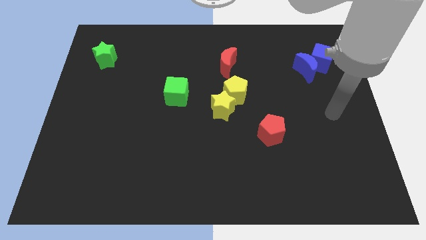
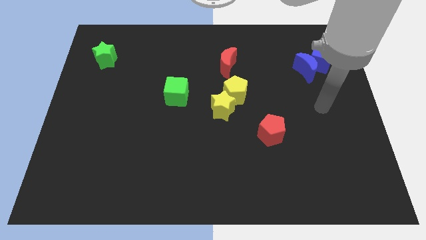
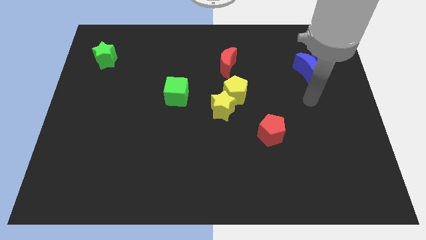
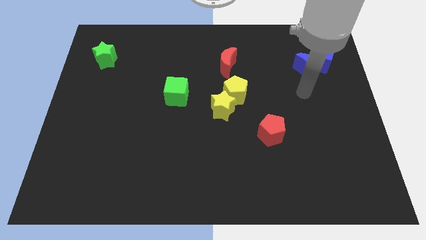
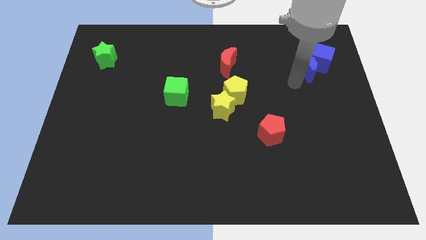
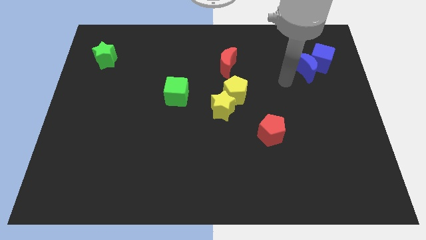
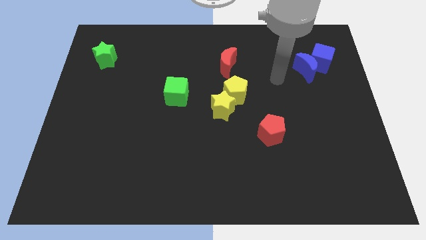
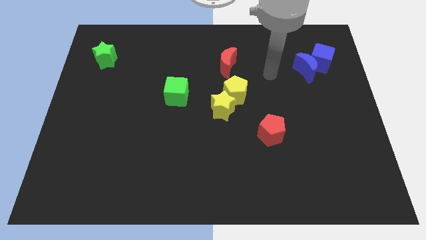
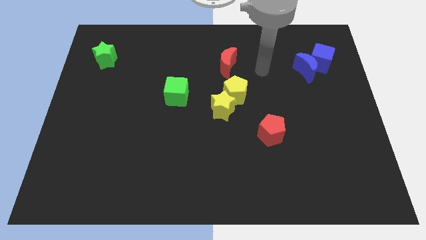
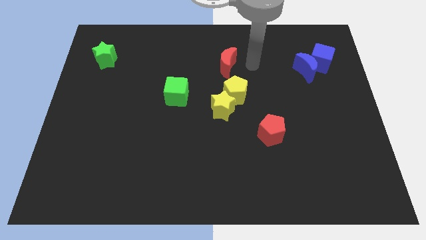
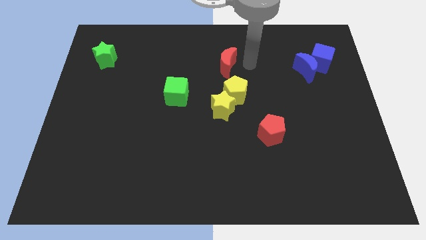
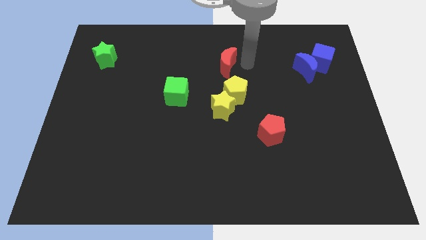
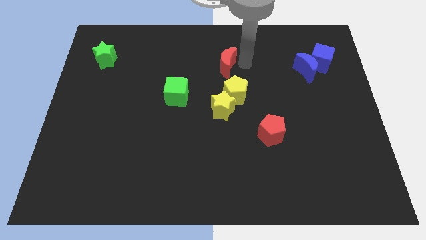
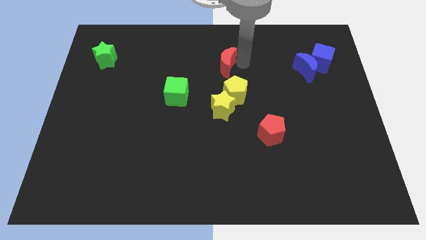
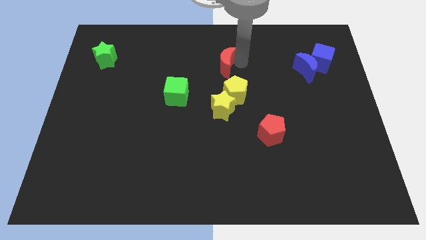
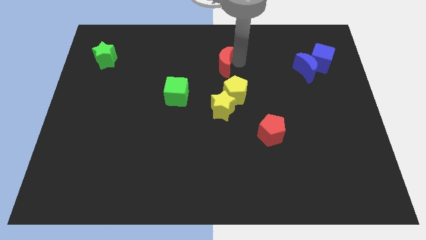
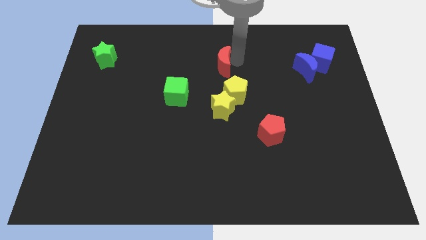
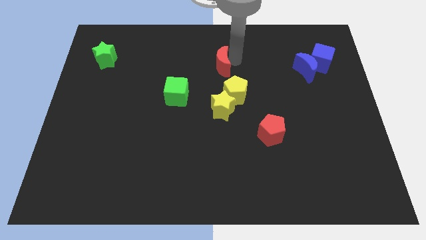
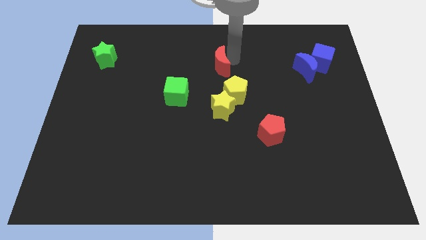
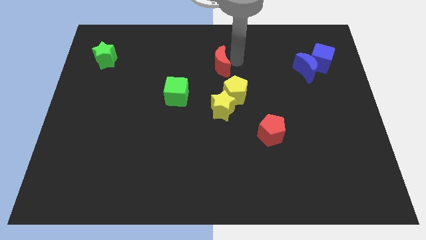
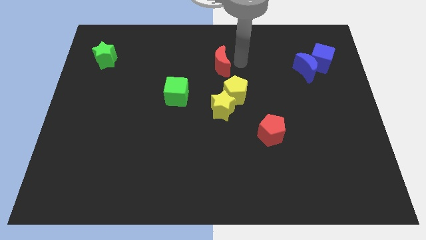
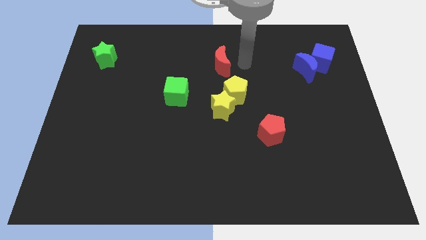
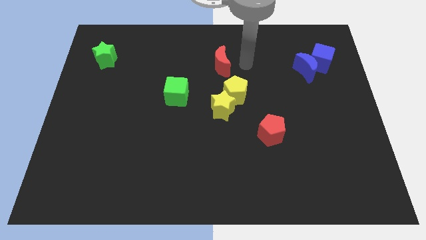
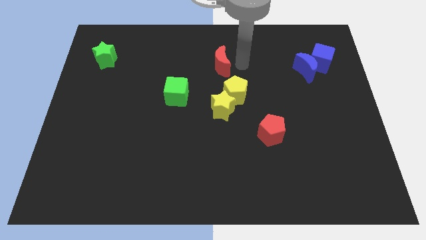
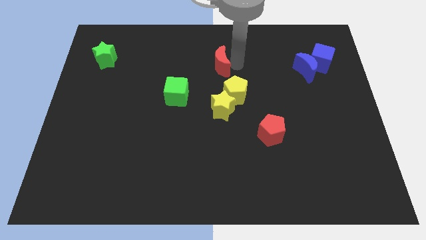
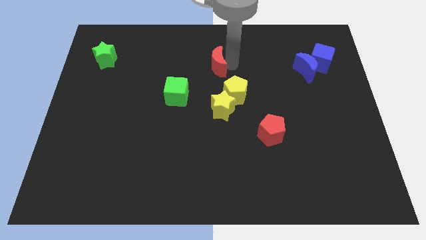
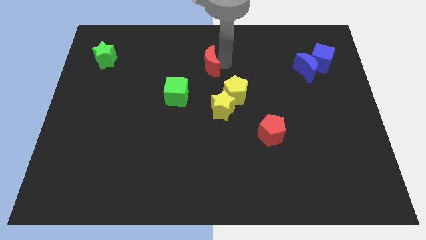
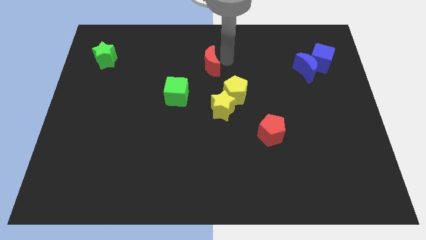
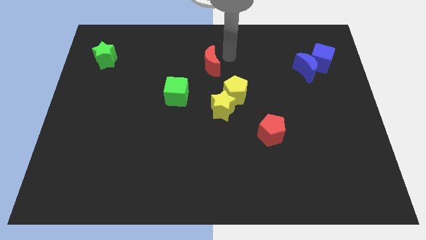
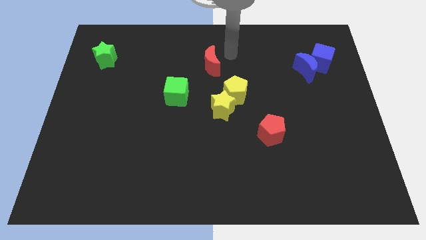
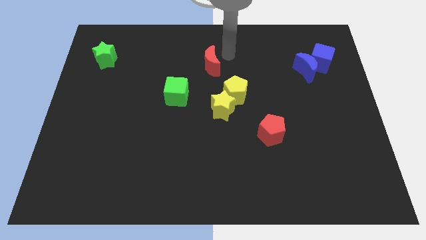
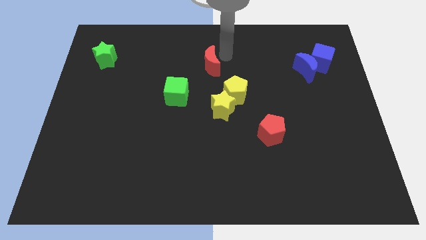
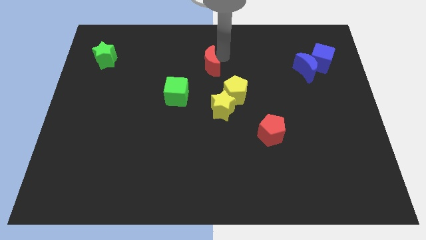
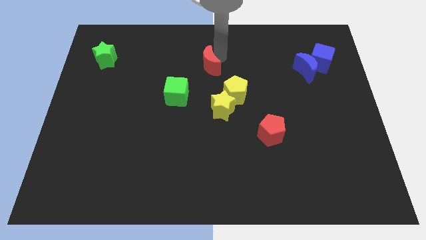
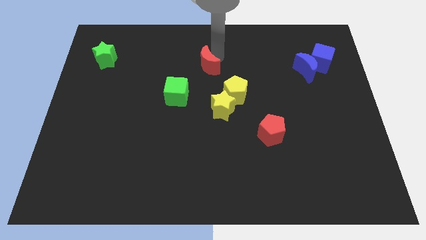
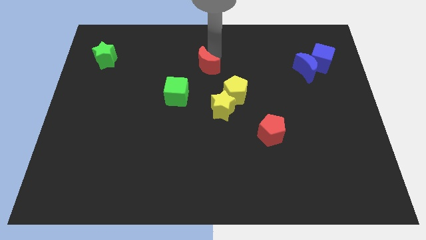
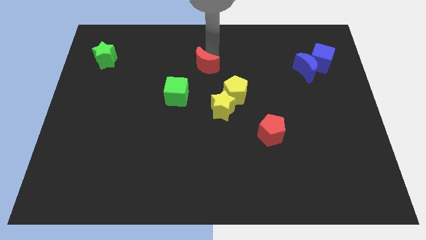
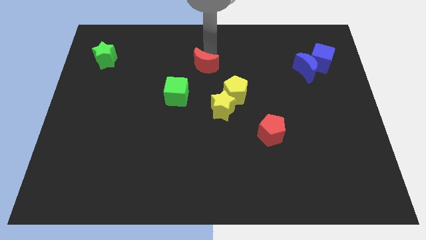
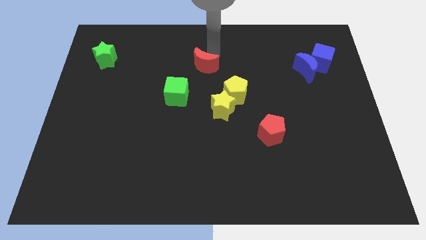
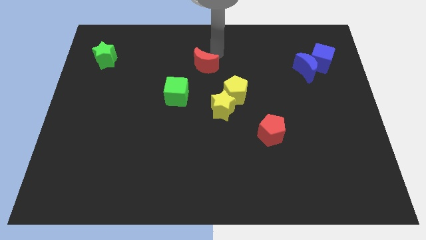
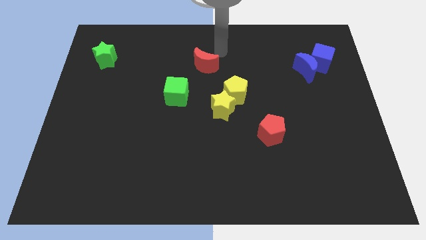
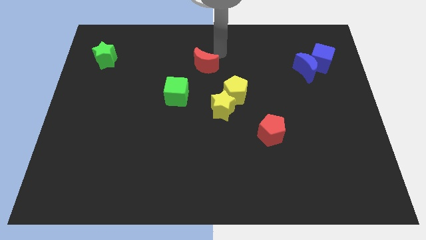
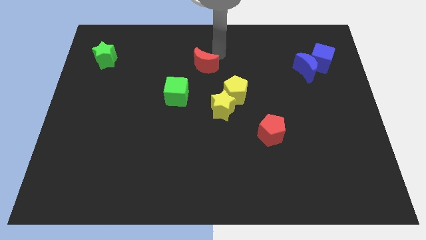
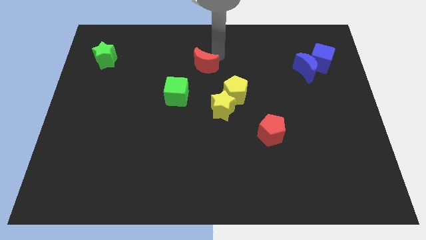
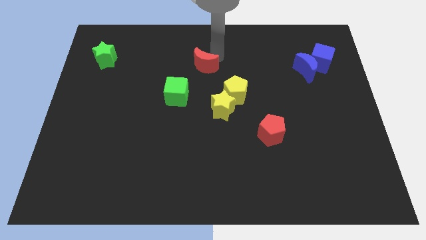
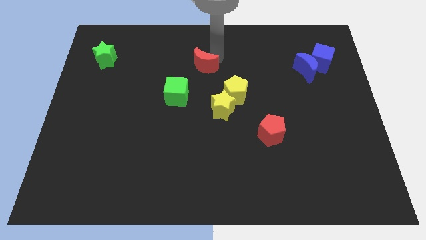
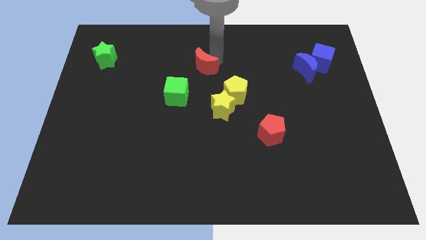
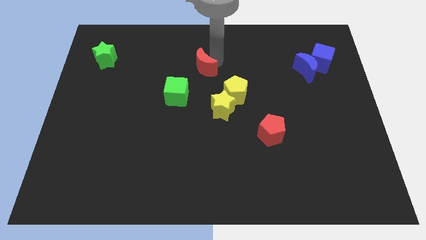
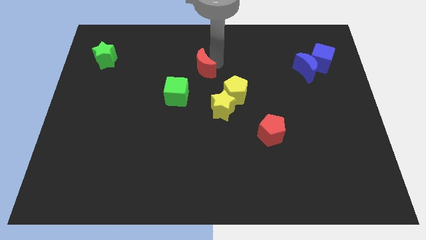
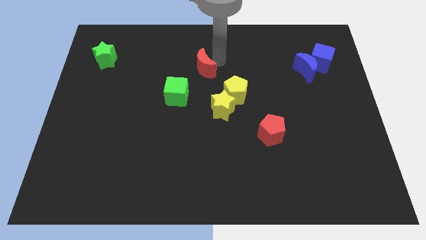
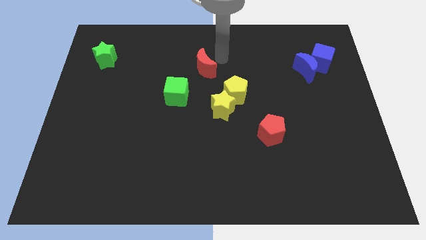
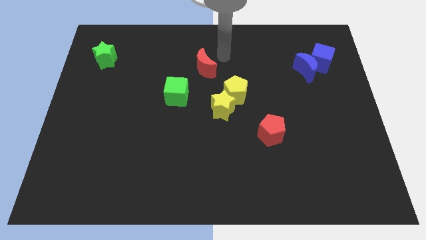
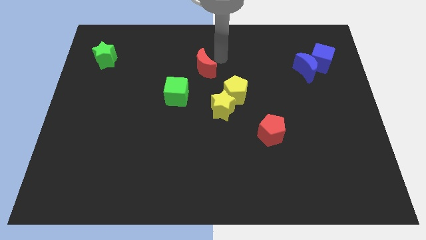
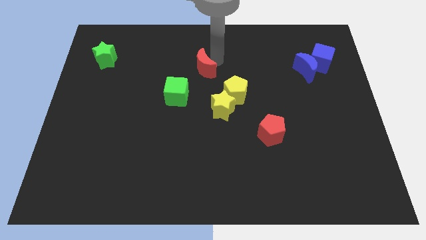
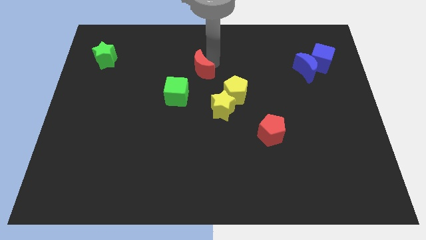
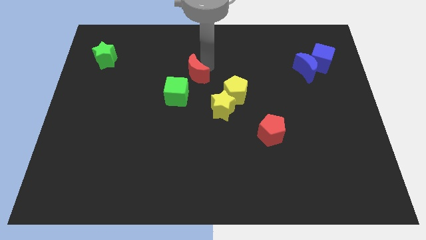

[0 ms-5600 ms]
slide the red moon downwards and then to the left somewhat

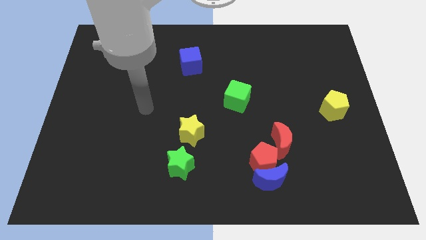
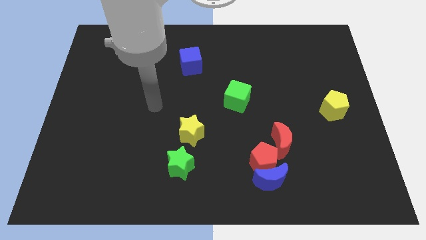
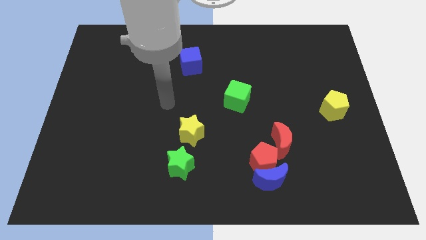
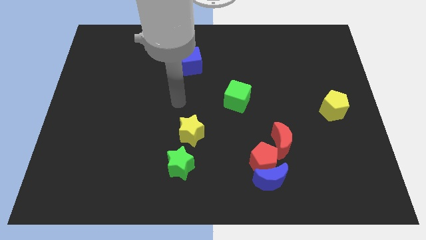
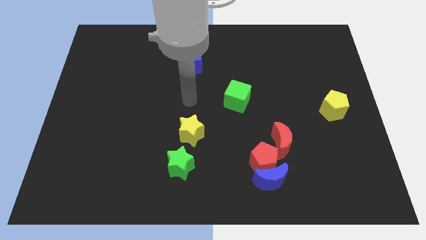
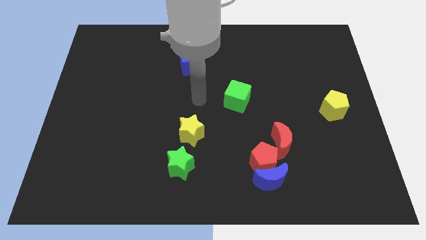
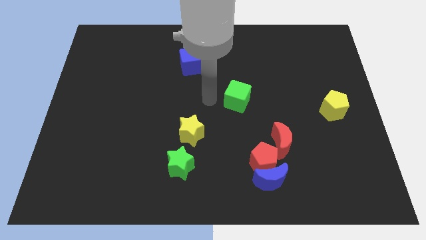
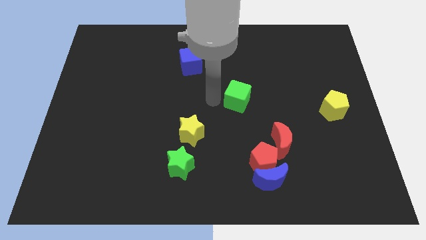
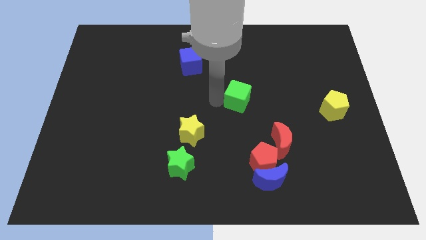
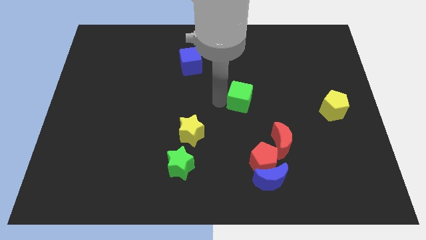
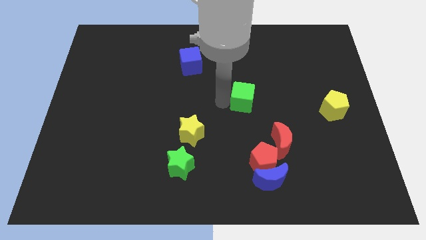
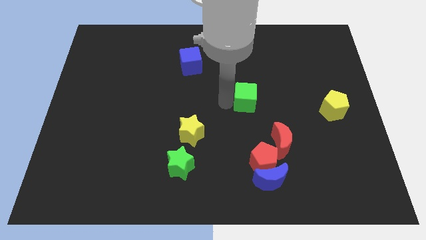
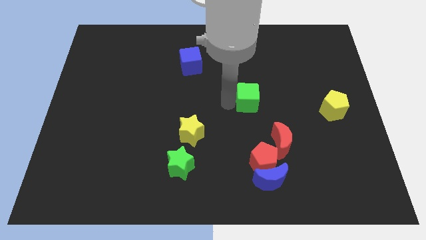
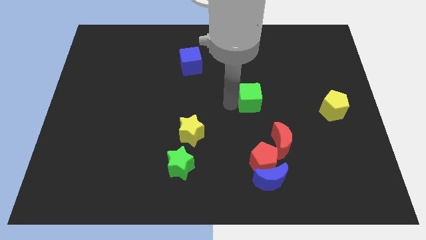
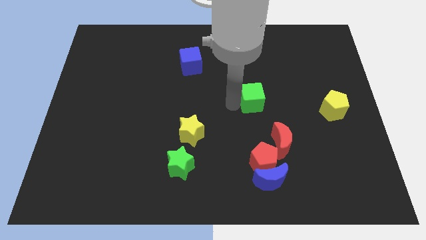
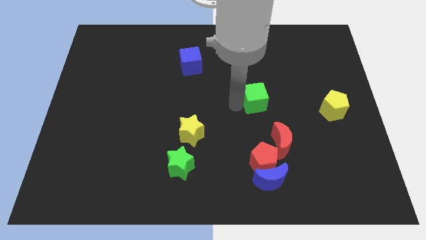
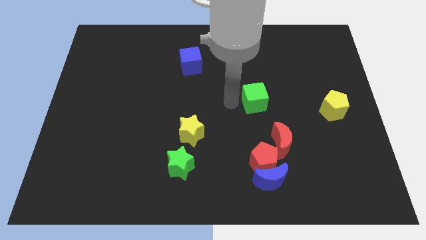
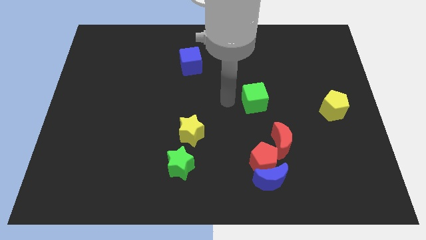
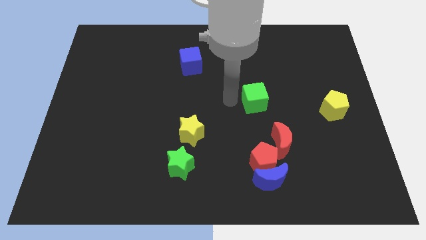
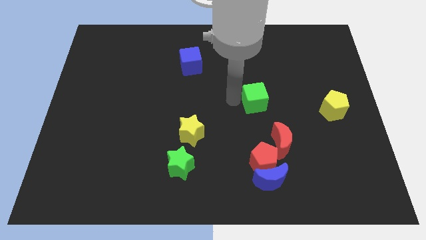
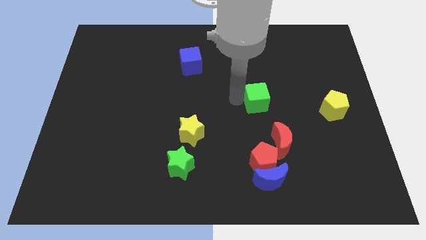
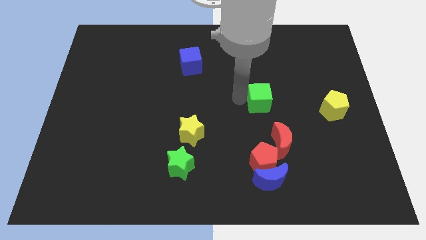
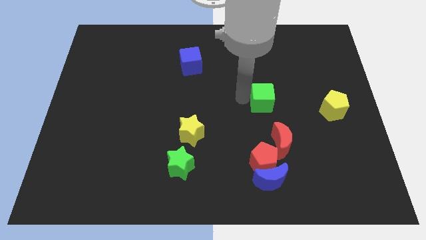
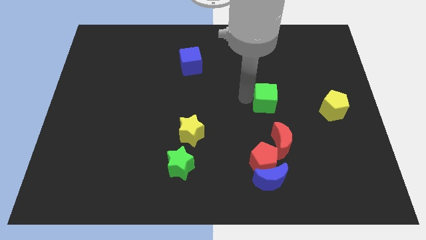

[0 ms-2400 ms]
slightly push the green cube right
